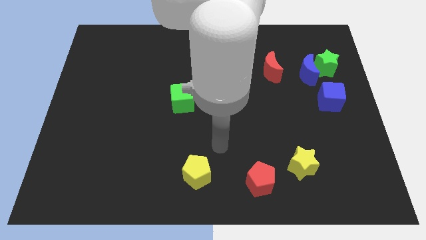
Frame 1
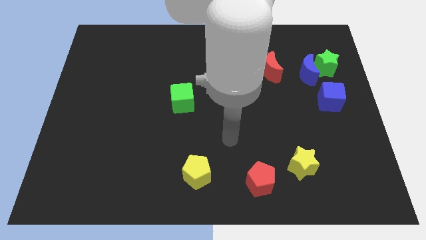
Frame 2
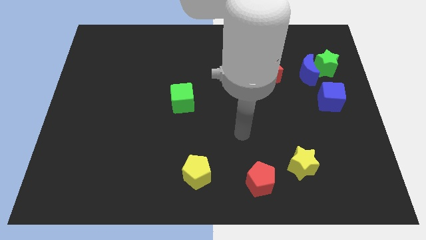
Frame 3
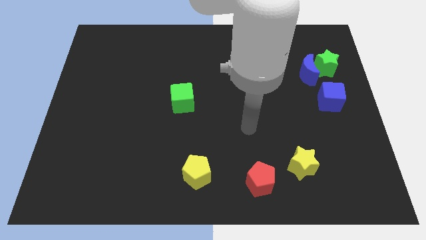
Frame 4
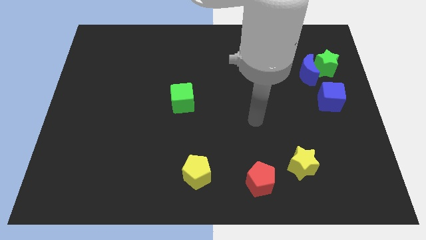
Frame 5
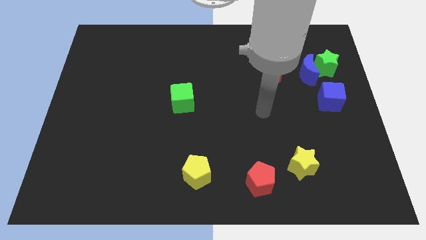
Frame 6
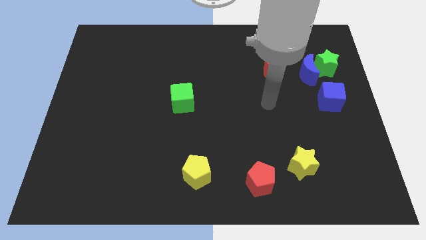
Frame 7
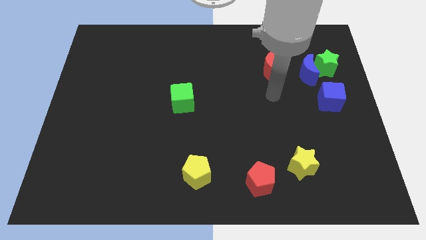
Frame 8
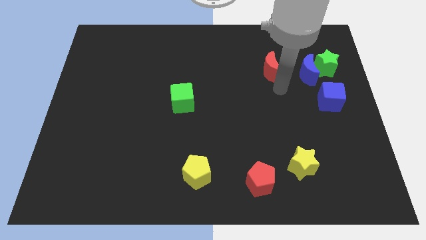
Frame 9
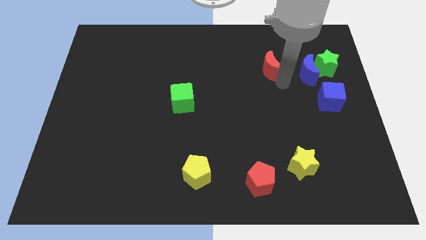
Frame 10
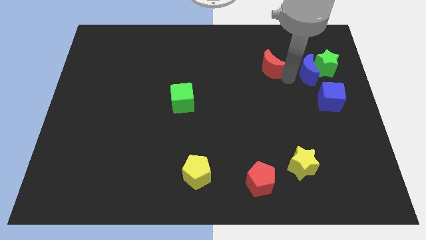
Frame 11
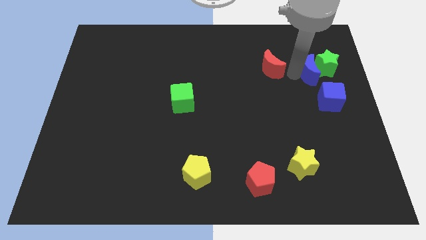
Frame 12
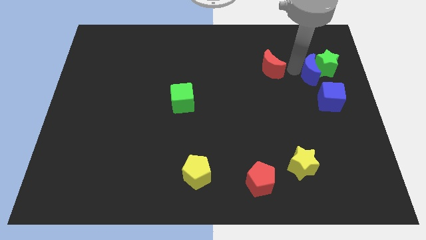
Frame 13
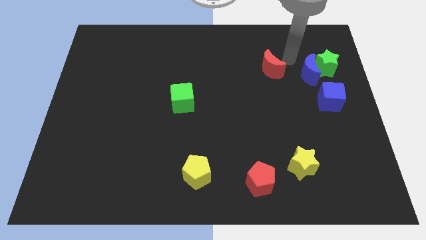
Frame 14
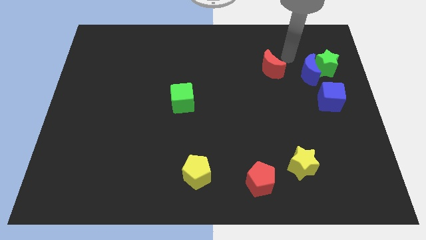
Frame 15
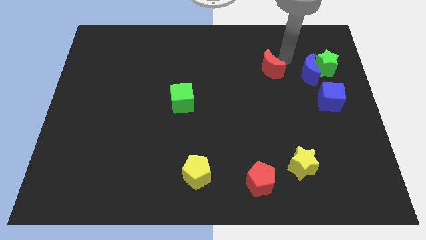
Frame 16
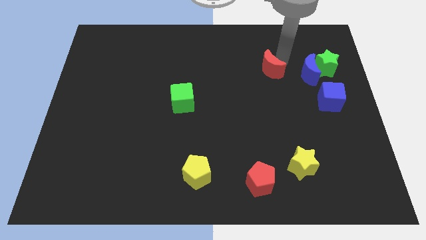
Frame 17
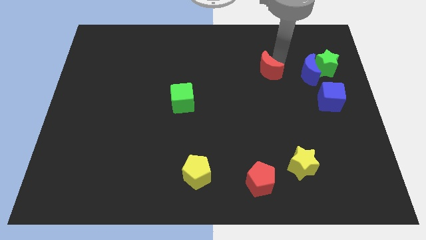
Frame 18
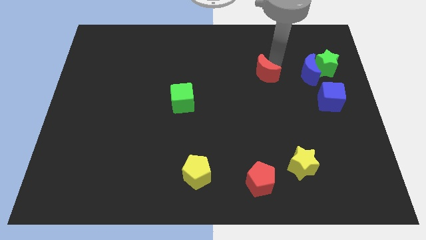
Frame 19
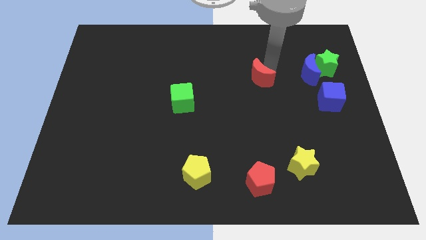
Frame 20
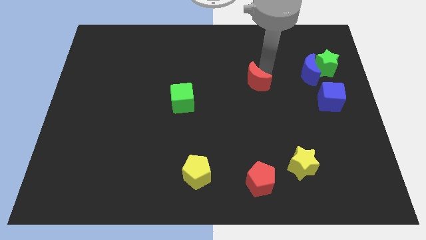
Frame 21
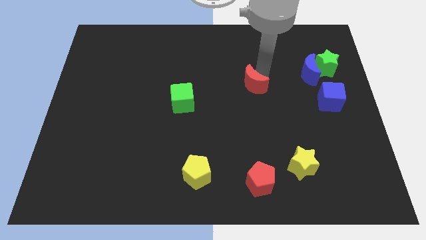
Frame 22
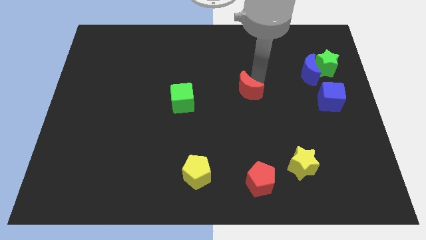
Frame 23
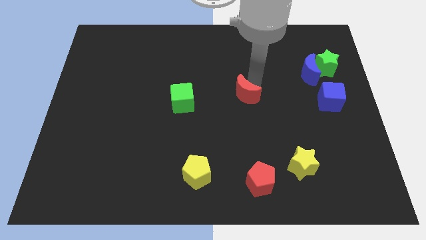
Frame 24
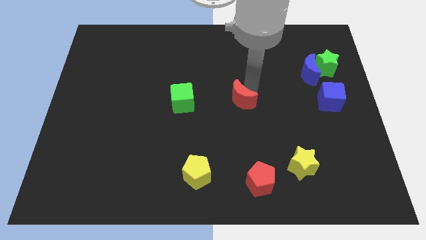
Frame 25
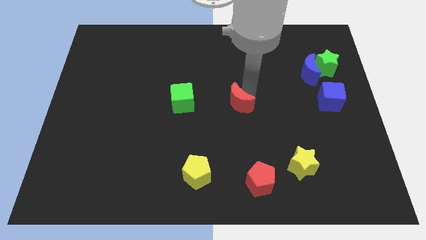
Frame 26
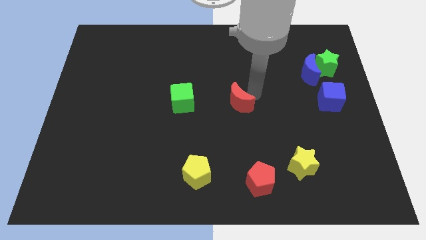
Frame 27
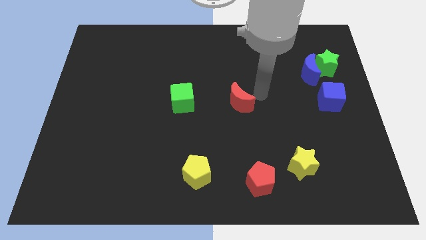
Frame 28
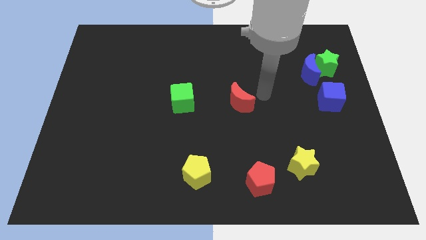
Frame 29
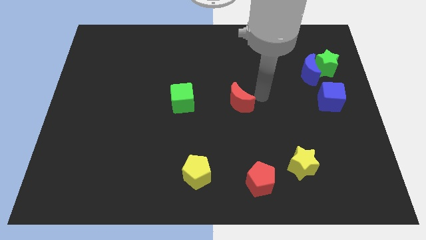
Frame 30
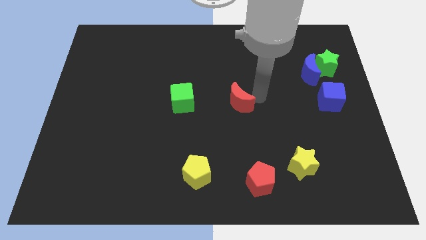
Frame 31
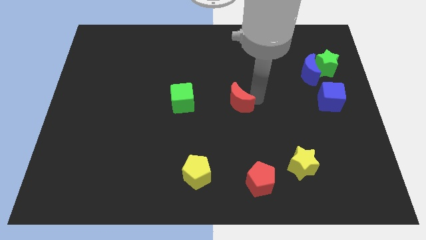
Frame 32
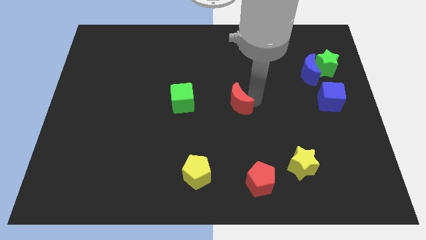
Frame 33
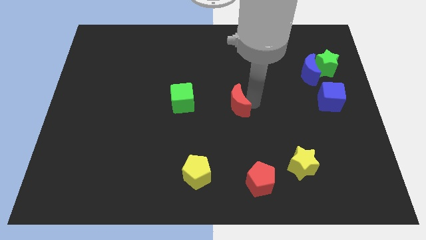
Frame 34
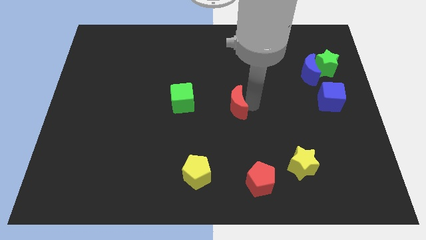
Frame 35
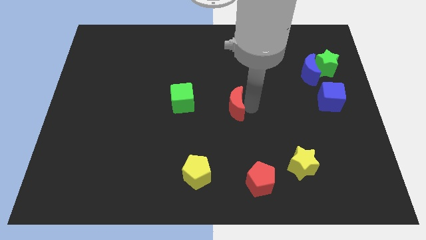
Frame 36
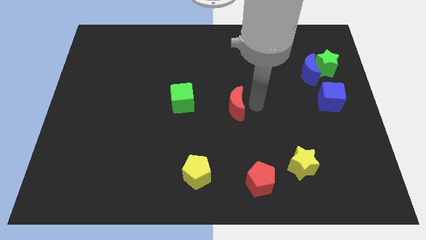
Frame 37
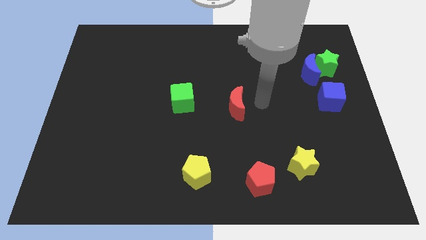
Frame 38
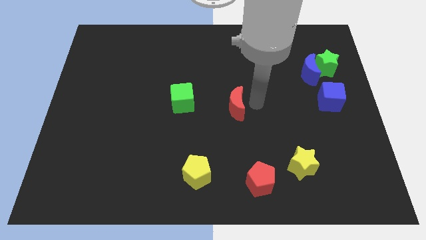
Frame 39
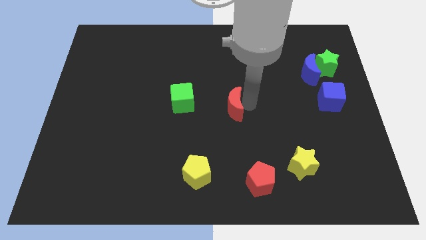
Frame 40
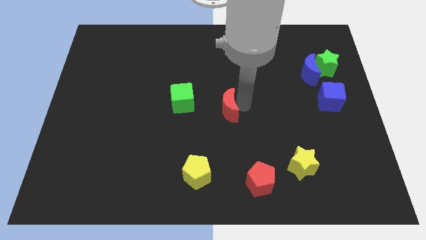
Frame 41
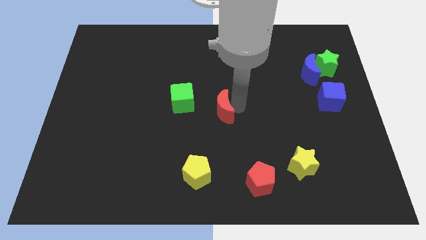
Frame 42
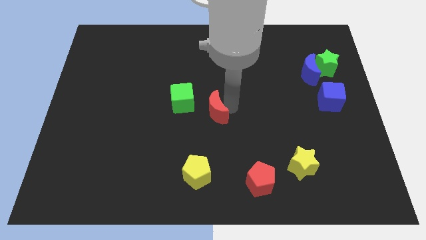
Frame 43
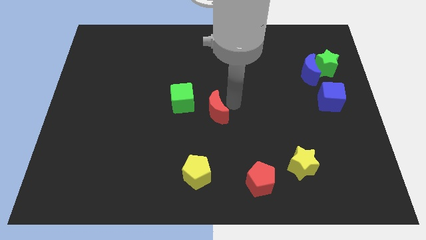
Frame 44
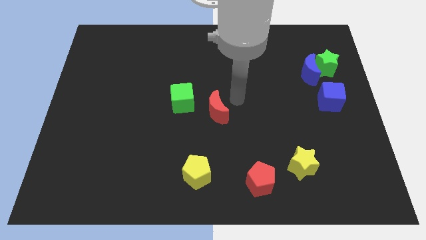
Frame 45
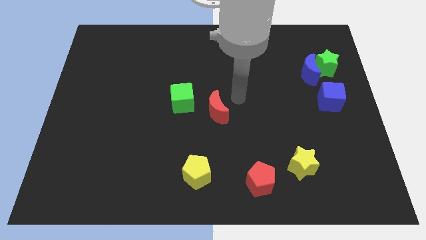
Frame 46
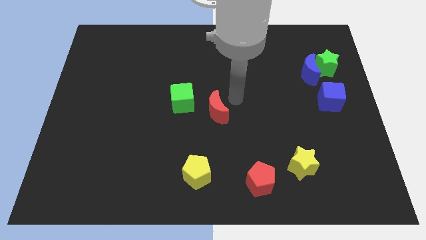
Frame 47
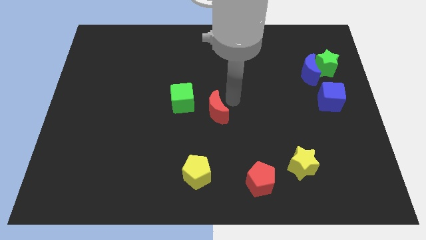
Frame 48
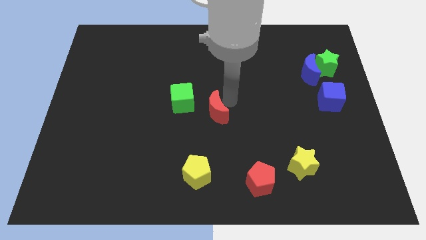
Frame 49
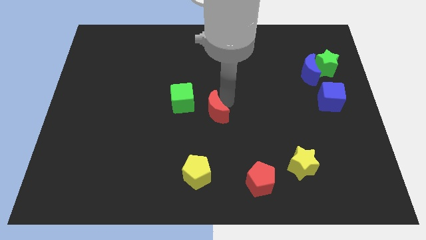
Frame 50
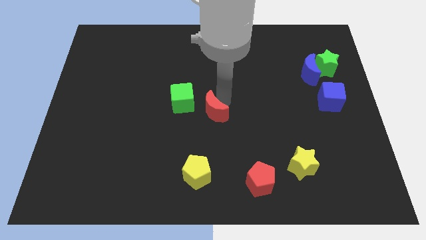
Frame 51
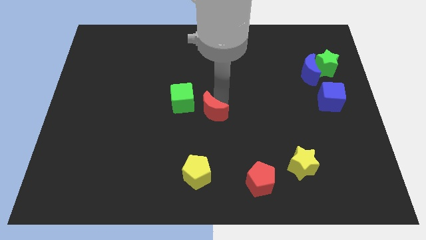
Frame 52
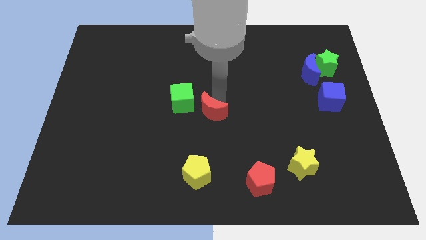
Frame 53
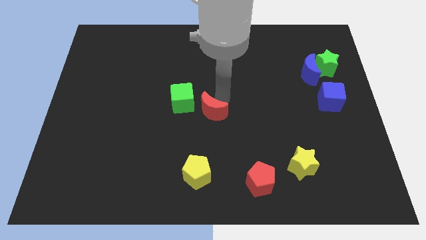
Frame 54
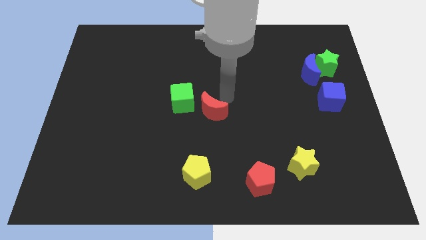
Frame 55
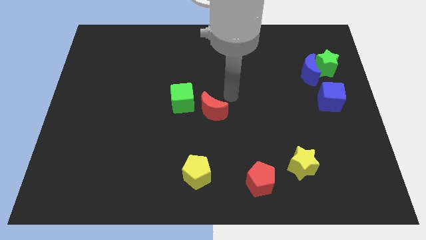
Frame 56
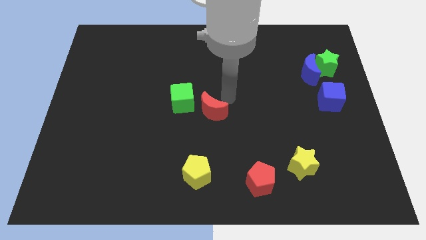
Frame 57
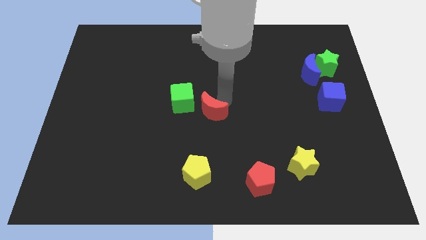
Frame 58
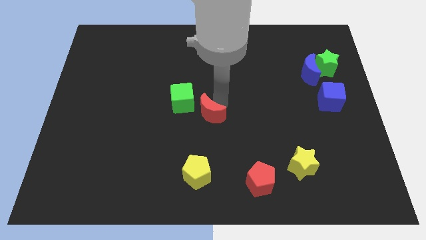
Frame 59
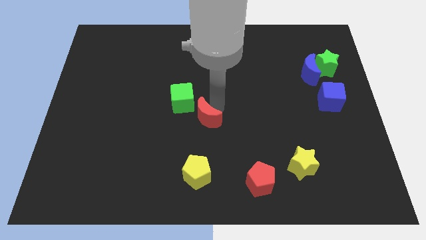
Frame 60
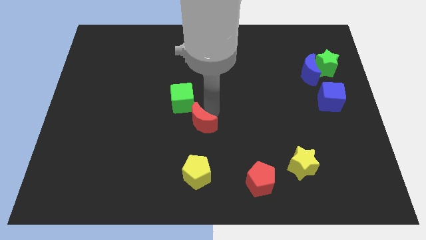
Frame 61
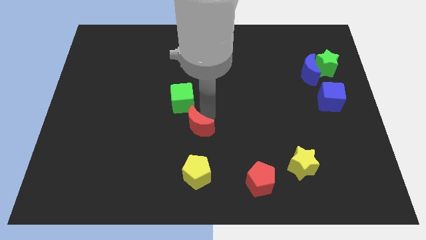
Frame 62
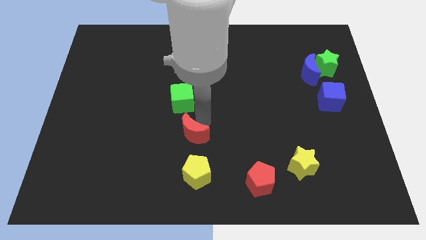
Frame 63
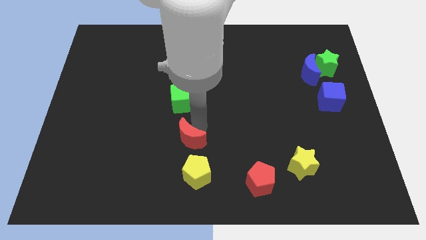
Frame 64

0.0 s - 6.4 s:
push the red moon to the top left of the yellow pentagon

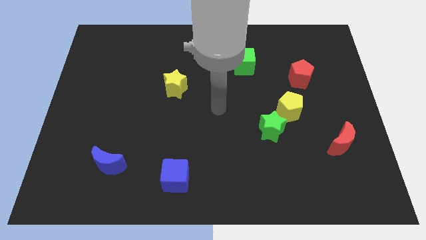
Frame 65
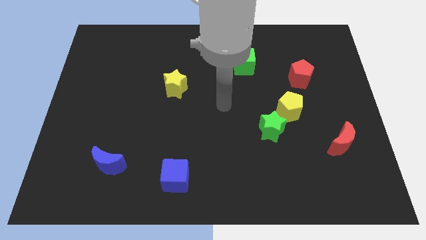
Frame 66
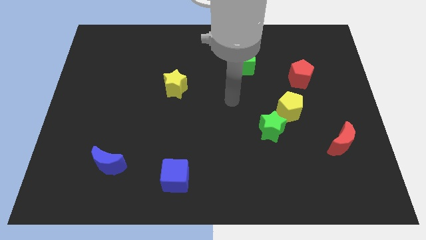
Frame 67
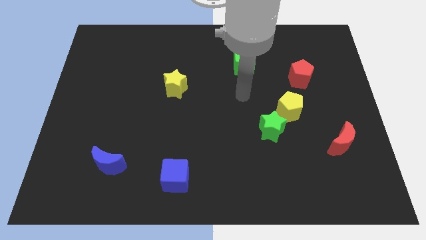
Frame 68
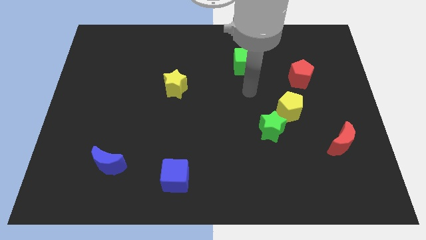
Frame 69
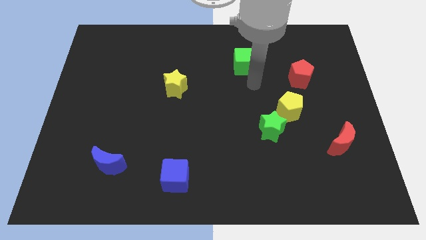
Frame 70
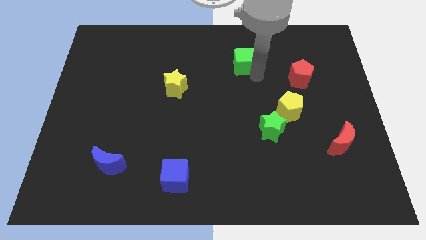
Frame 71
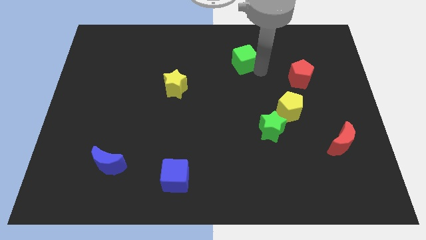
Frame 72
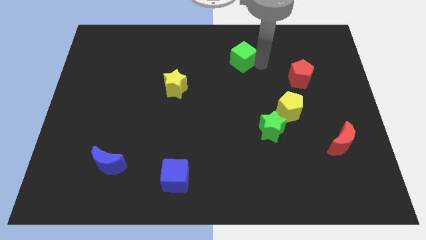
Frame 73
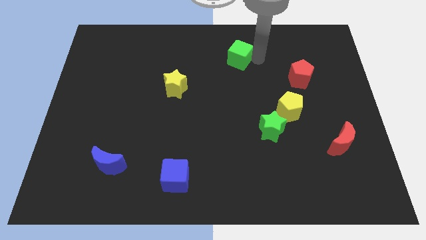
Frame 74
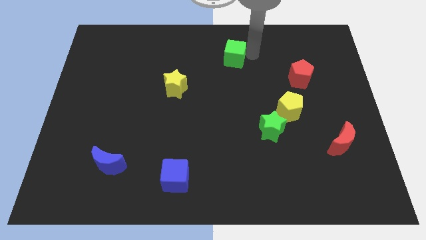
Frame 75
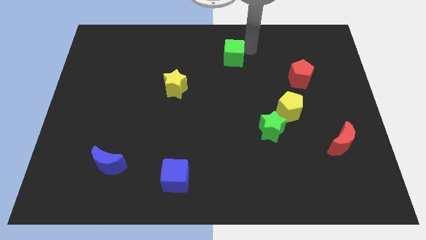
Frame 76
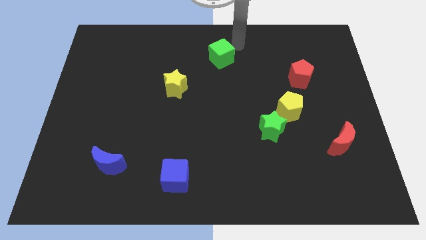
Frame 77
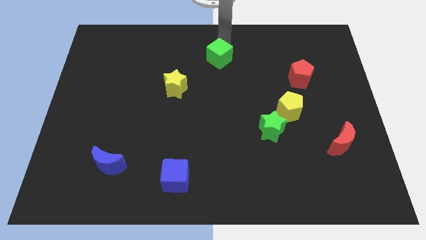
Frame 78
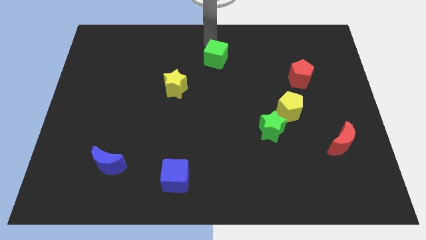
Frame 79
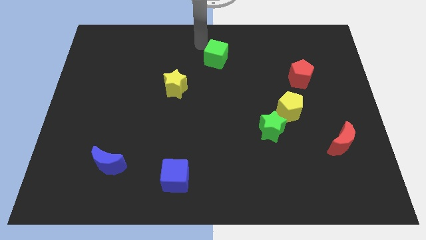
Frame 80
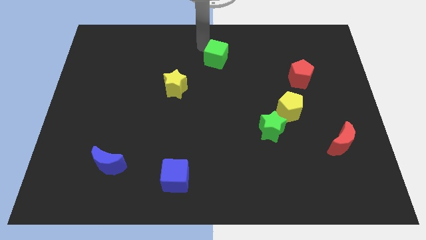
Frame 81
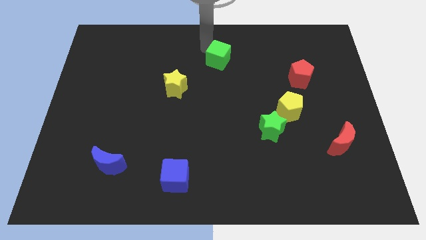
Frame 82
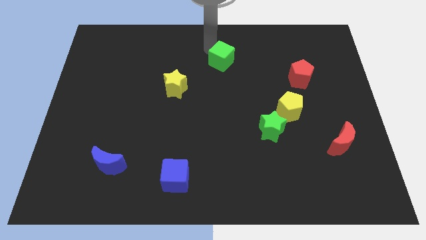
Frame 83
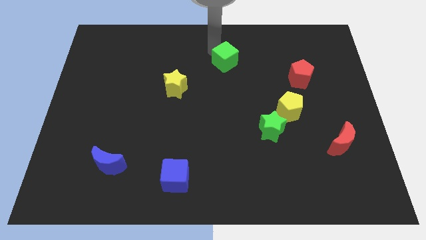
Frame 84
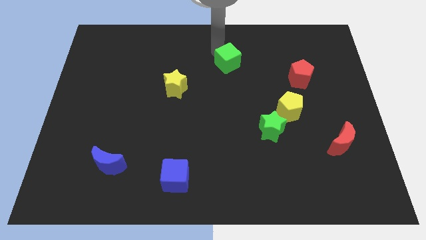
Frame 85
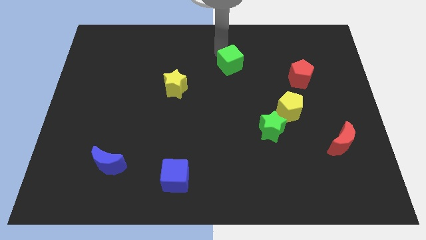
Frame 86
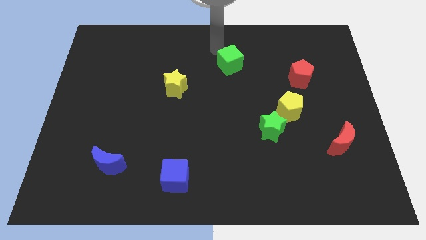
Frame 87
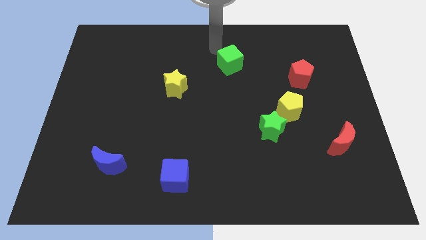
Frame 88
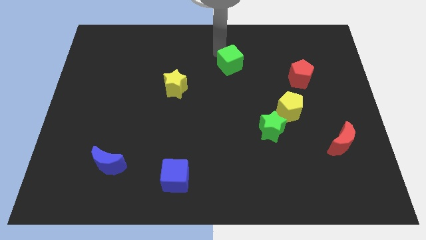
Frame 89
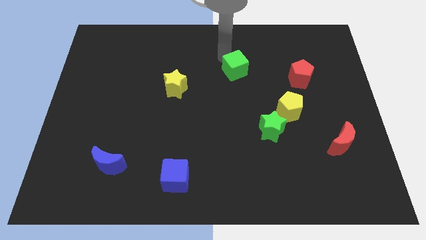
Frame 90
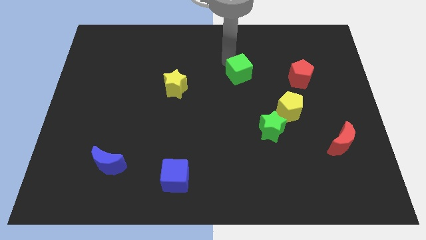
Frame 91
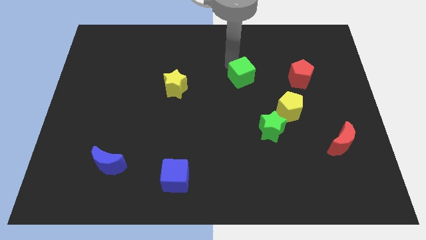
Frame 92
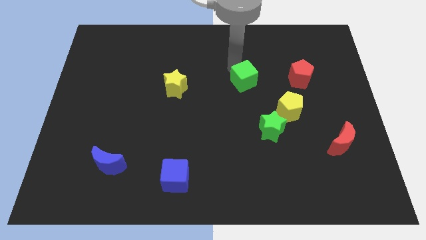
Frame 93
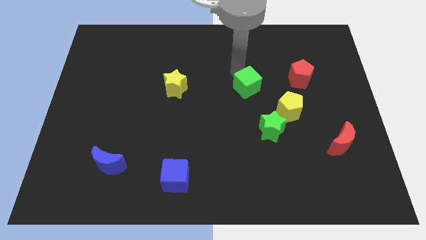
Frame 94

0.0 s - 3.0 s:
move the green cube diagonally up and to the left of the yellow pentagon
